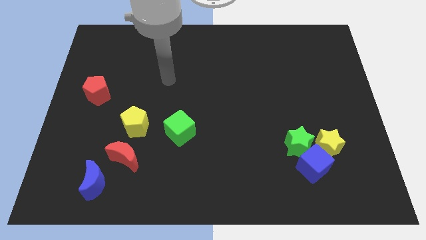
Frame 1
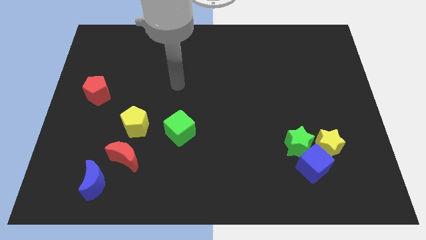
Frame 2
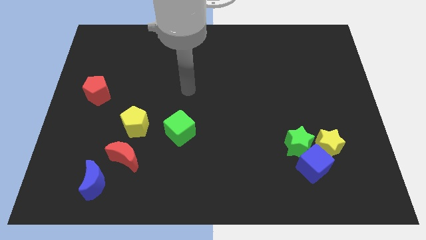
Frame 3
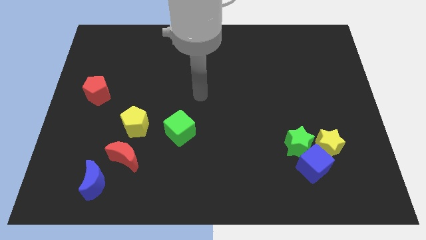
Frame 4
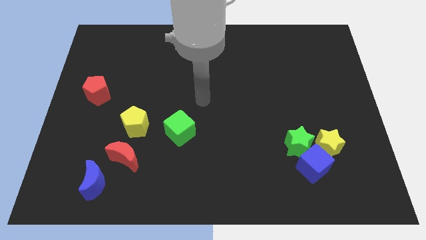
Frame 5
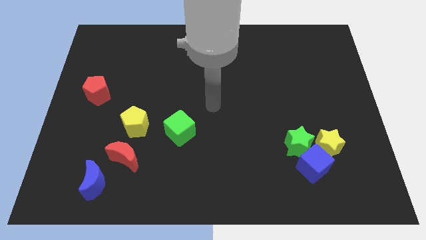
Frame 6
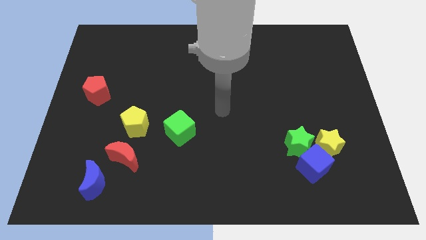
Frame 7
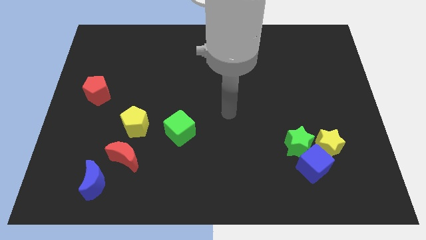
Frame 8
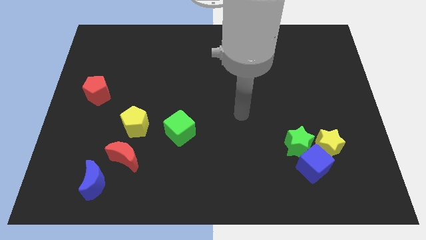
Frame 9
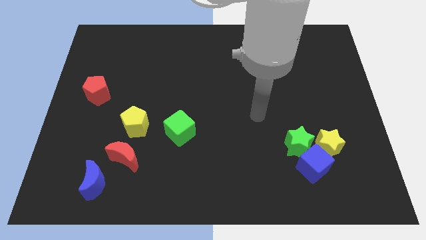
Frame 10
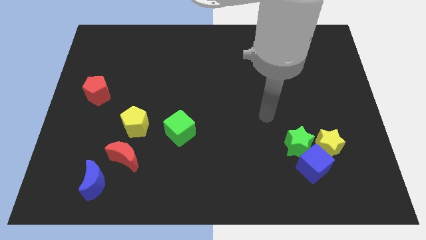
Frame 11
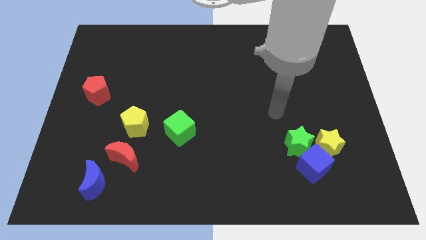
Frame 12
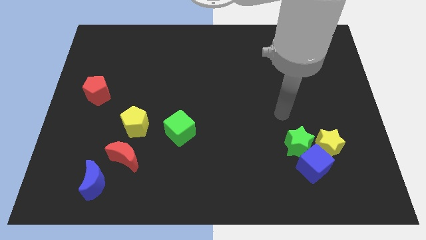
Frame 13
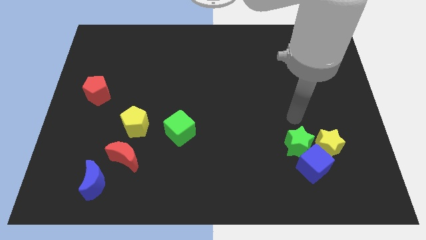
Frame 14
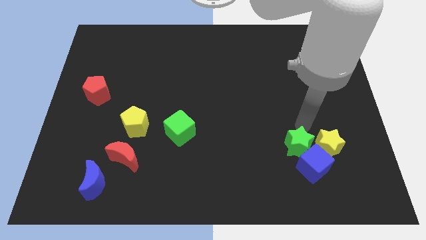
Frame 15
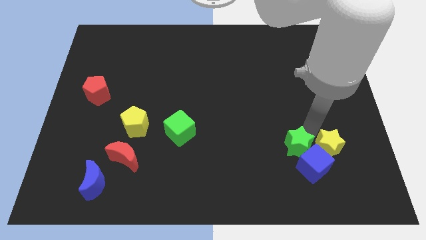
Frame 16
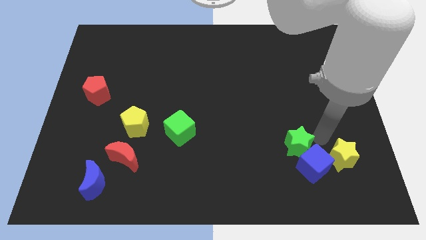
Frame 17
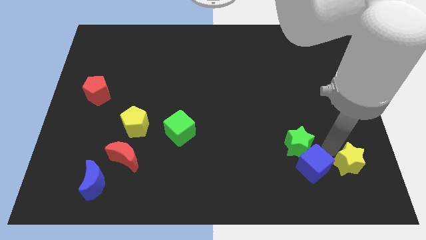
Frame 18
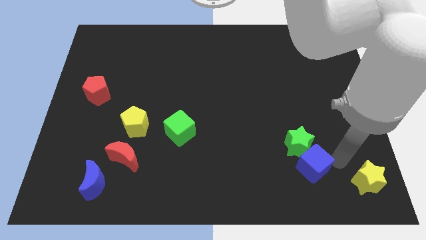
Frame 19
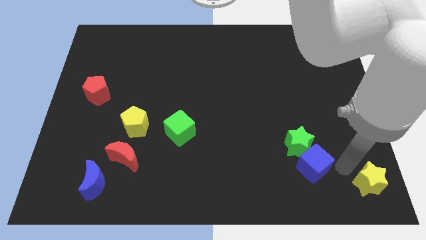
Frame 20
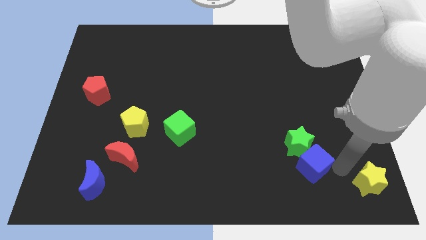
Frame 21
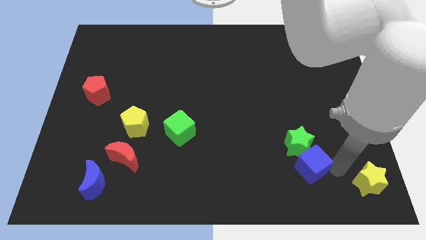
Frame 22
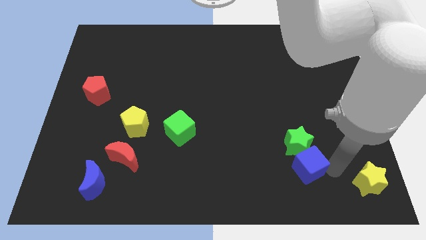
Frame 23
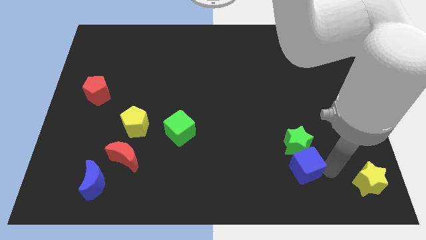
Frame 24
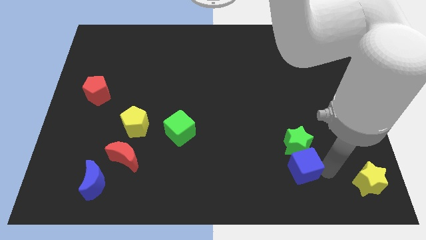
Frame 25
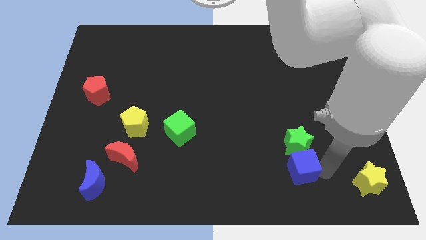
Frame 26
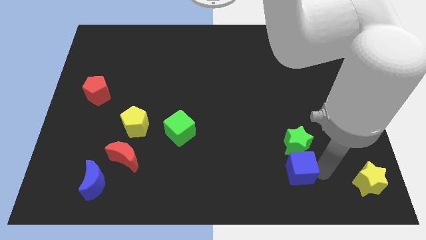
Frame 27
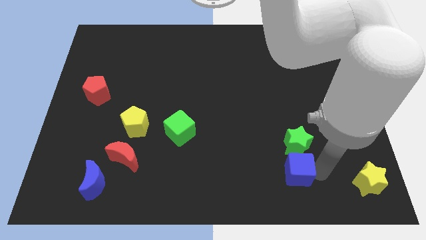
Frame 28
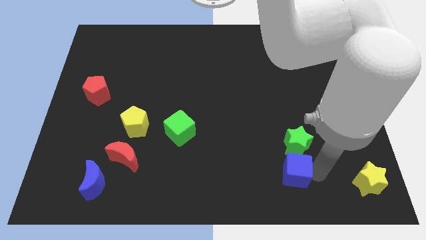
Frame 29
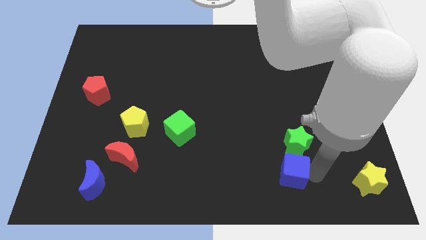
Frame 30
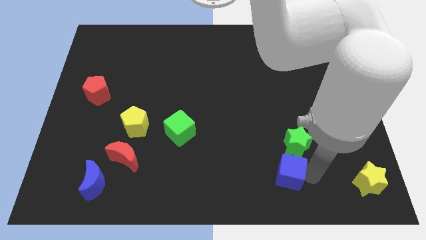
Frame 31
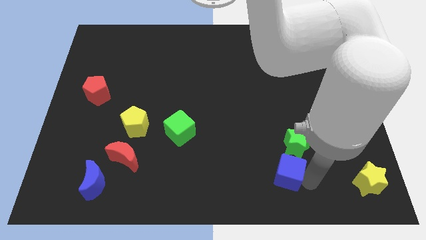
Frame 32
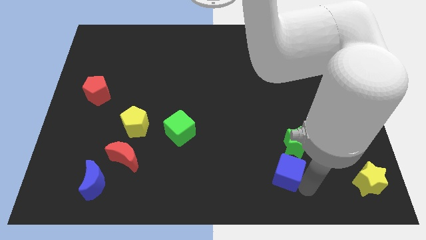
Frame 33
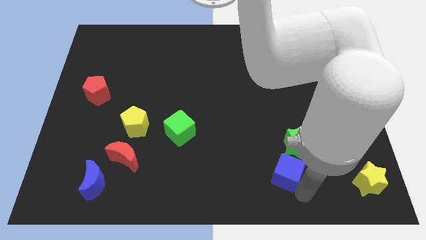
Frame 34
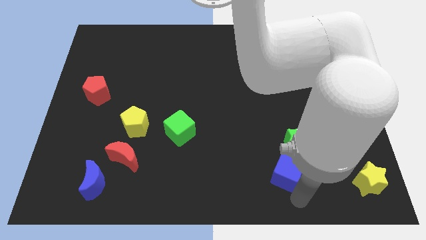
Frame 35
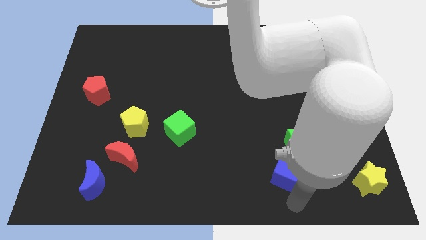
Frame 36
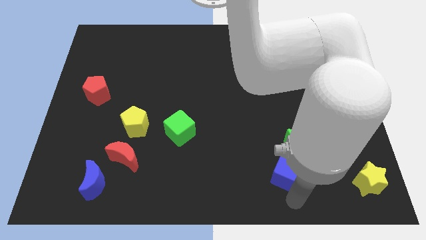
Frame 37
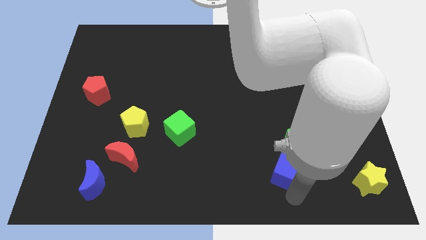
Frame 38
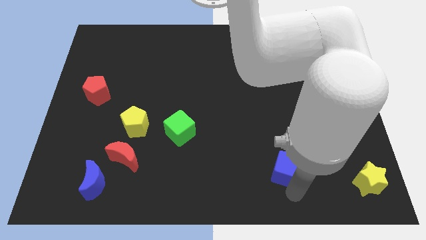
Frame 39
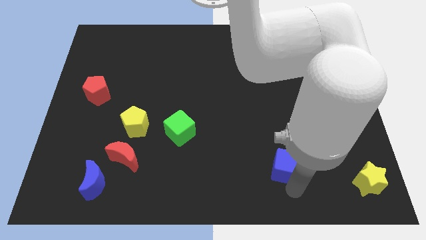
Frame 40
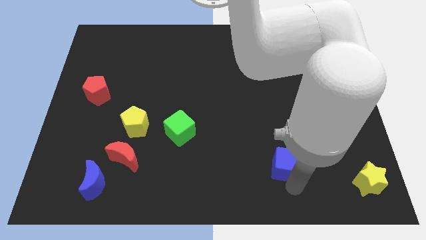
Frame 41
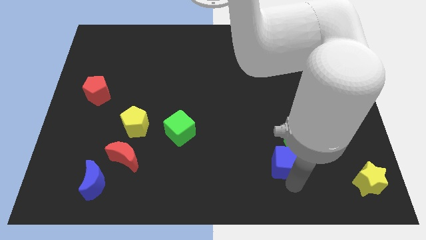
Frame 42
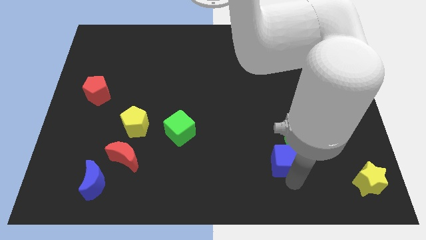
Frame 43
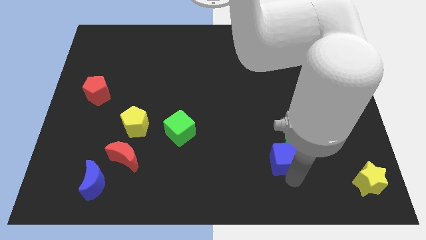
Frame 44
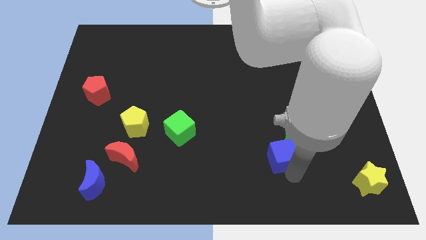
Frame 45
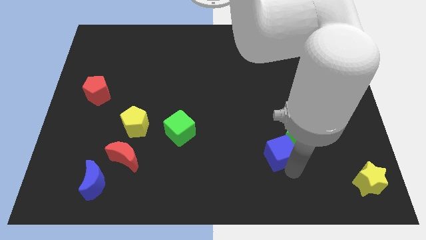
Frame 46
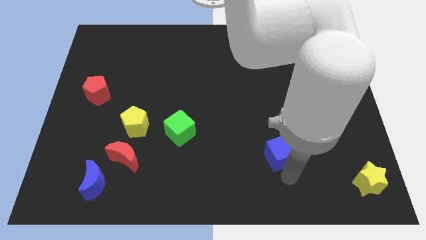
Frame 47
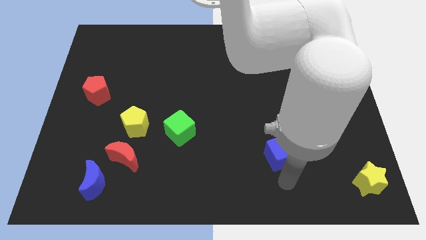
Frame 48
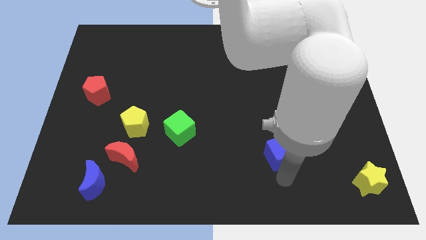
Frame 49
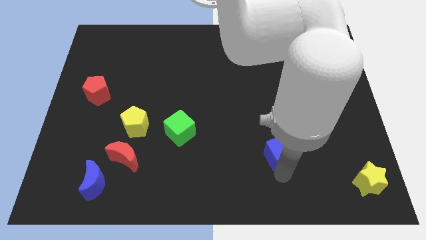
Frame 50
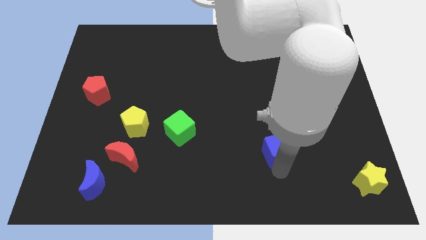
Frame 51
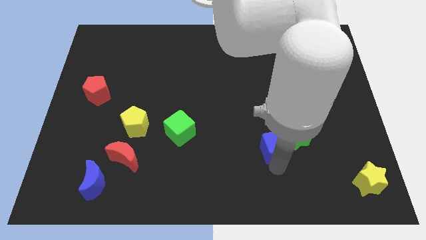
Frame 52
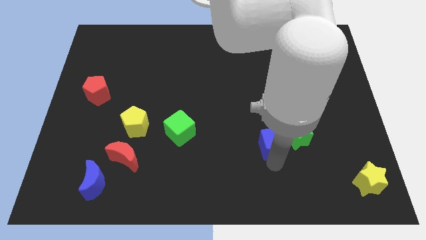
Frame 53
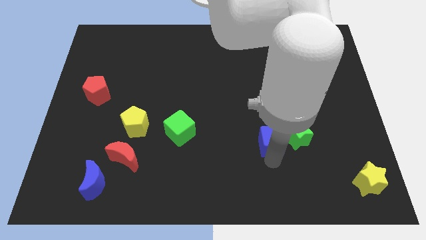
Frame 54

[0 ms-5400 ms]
push the blue cube diagonally up and to the left of the green star
